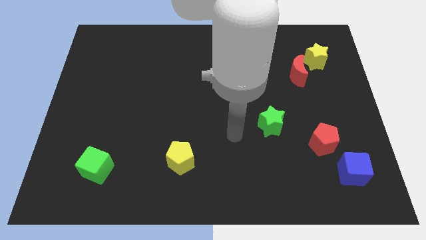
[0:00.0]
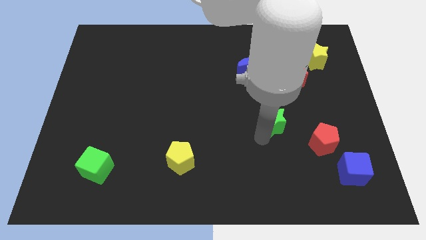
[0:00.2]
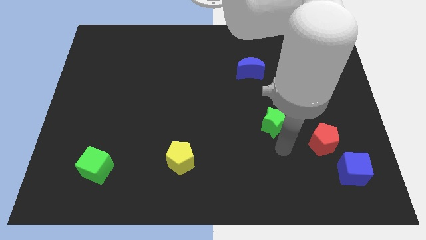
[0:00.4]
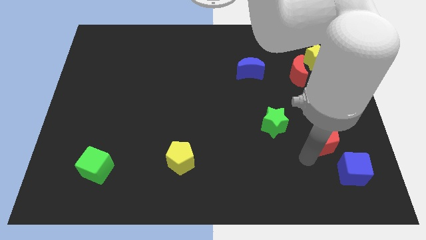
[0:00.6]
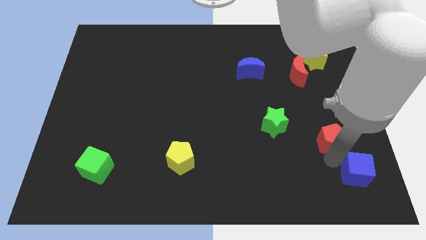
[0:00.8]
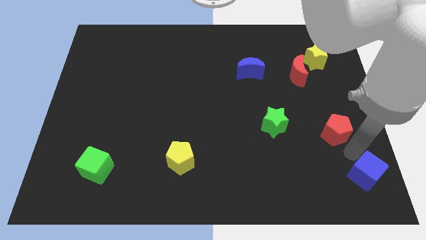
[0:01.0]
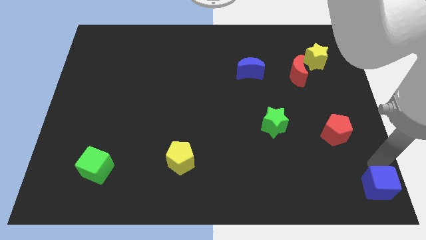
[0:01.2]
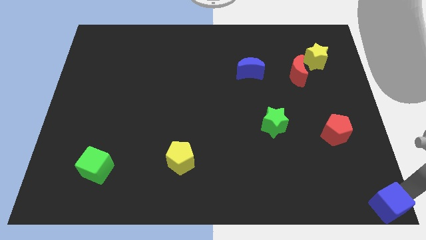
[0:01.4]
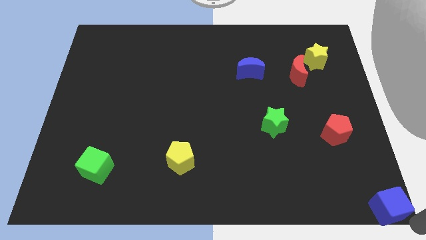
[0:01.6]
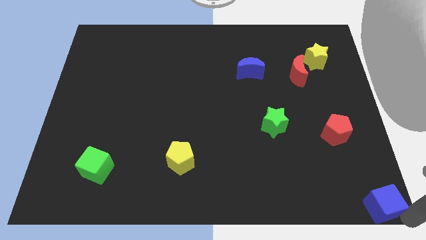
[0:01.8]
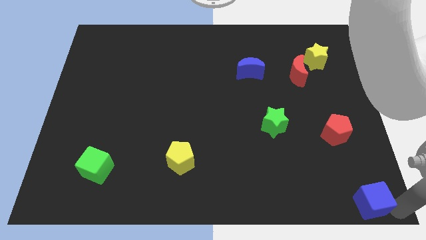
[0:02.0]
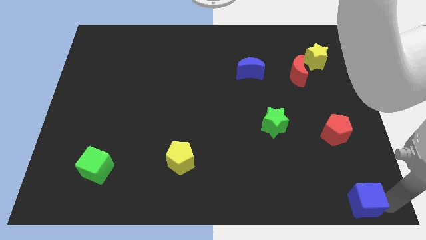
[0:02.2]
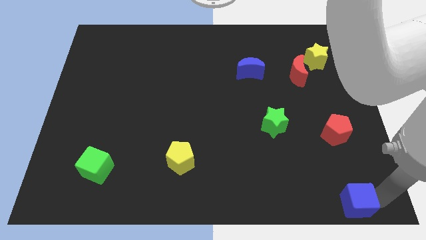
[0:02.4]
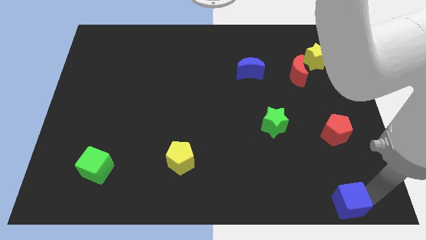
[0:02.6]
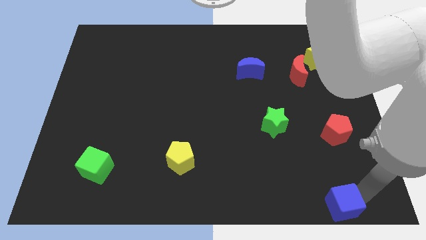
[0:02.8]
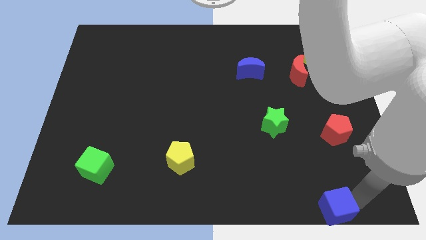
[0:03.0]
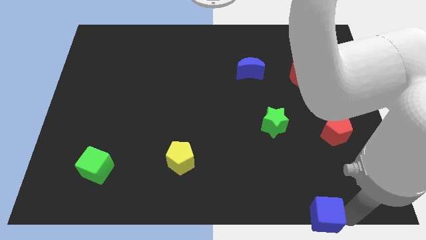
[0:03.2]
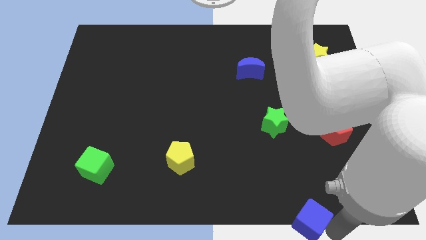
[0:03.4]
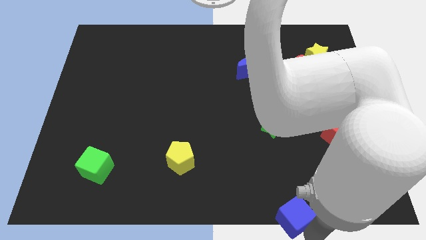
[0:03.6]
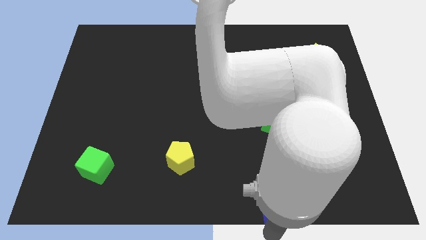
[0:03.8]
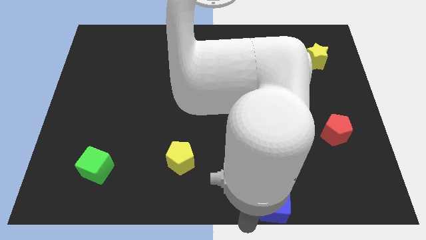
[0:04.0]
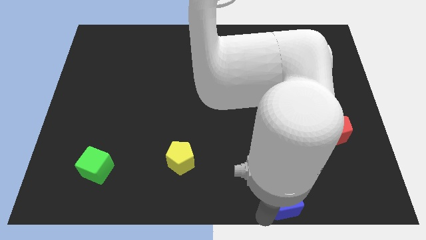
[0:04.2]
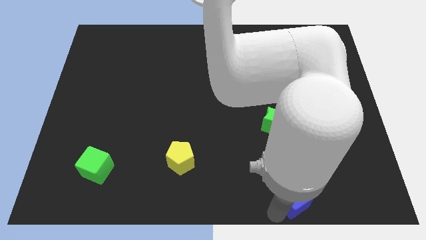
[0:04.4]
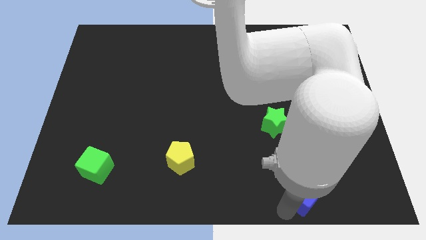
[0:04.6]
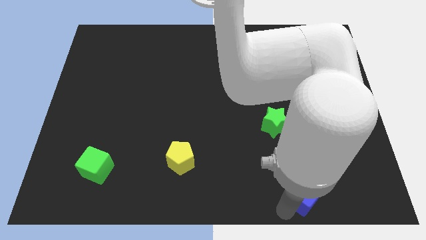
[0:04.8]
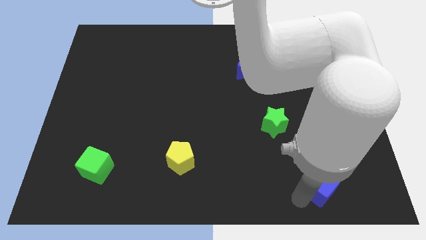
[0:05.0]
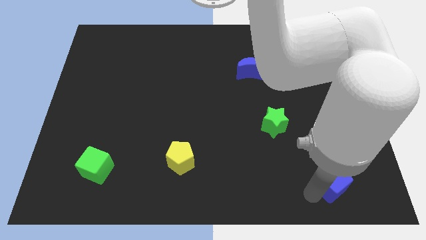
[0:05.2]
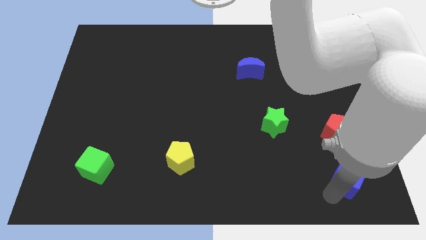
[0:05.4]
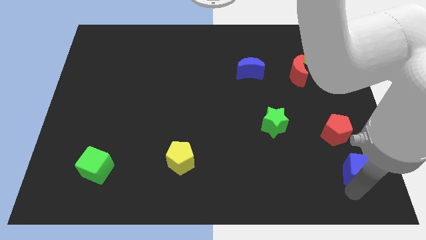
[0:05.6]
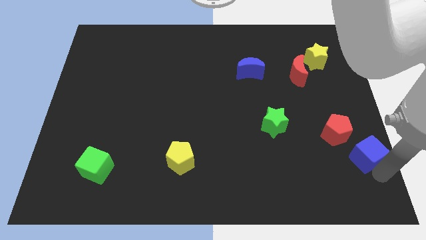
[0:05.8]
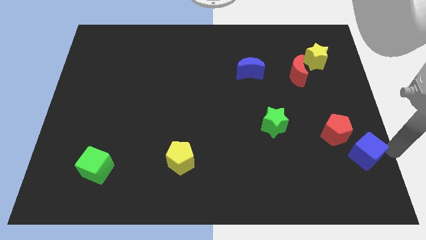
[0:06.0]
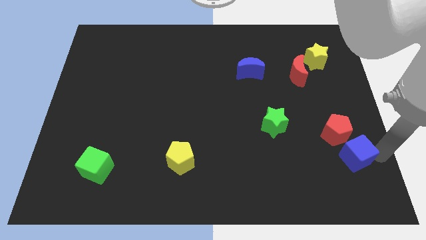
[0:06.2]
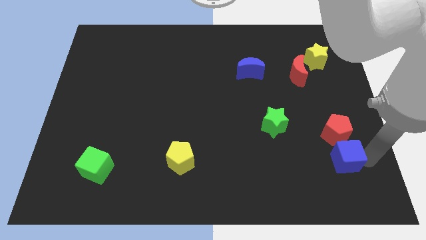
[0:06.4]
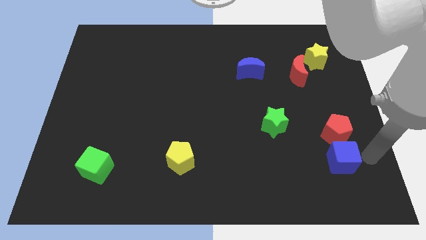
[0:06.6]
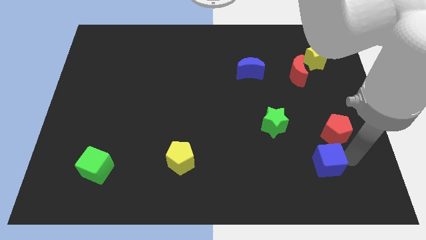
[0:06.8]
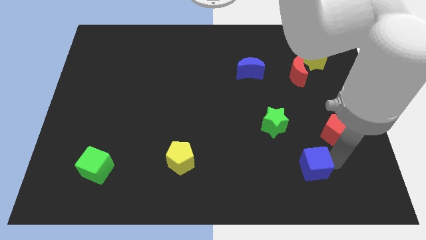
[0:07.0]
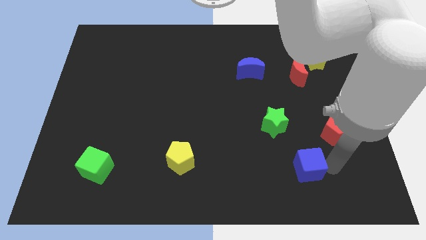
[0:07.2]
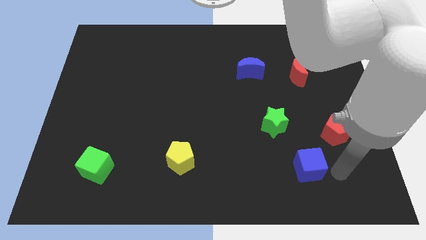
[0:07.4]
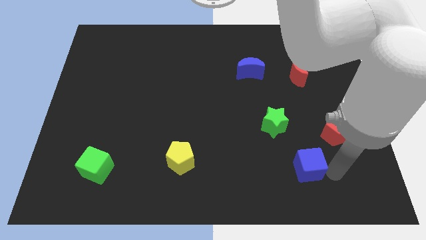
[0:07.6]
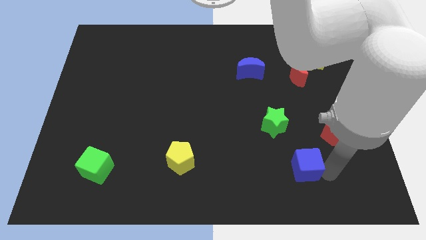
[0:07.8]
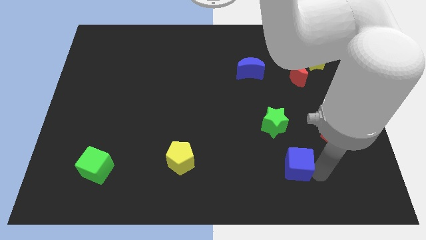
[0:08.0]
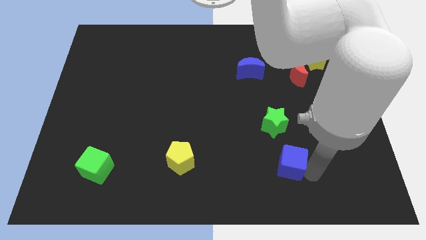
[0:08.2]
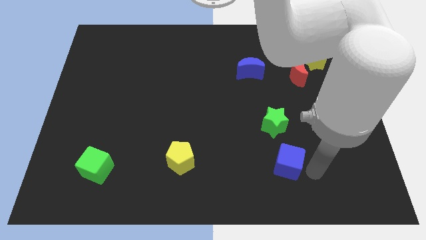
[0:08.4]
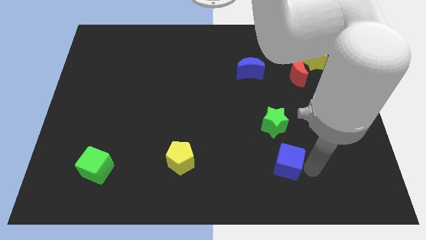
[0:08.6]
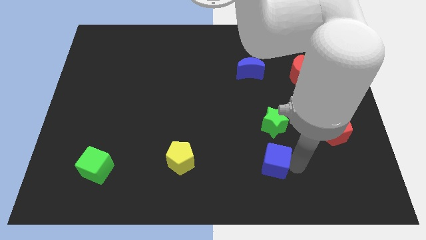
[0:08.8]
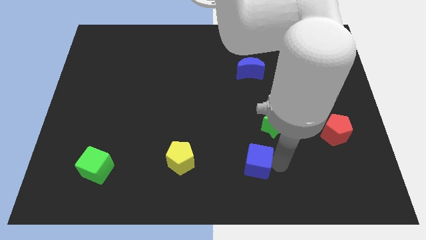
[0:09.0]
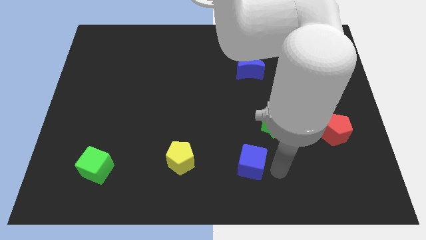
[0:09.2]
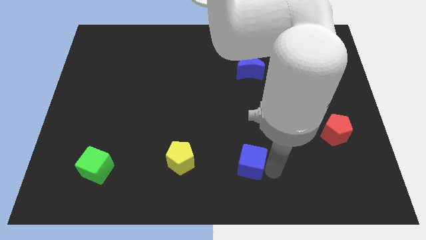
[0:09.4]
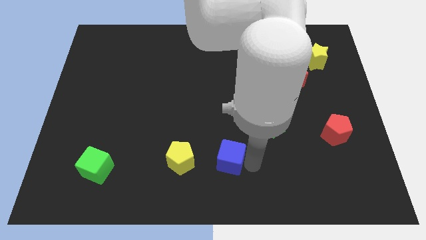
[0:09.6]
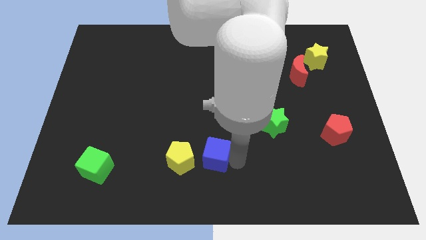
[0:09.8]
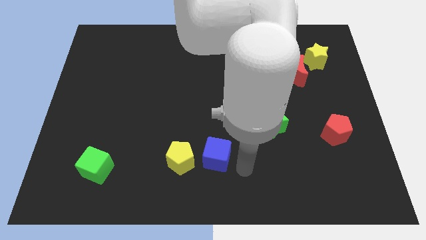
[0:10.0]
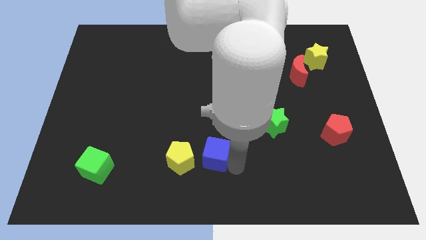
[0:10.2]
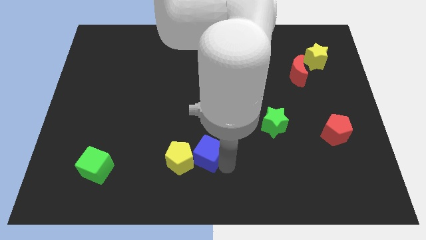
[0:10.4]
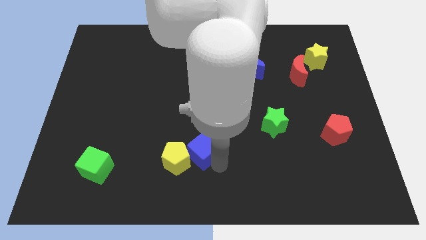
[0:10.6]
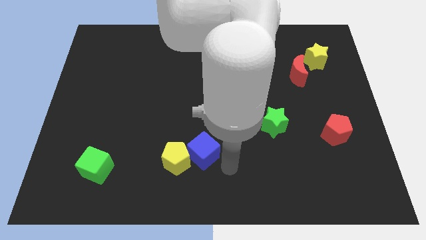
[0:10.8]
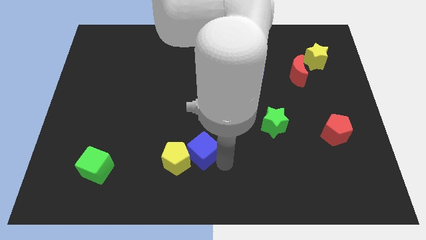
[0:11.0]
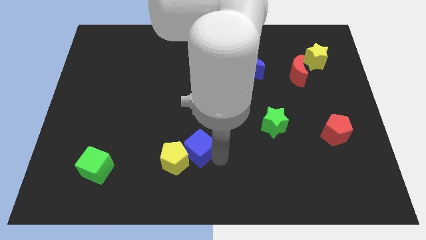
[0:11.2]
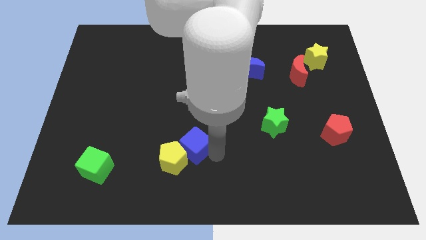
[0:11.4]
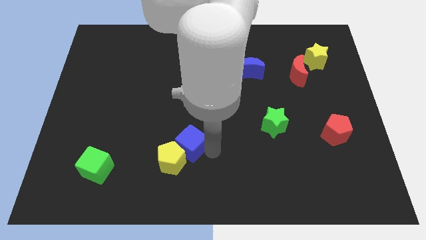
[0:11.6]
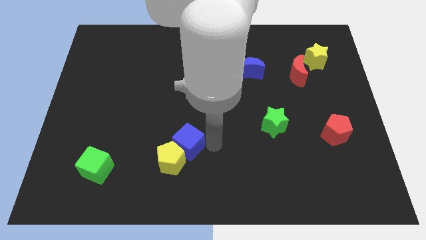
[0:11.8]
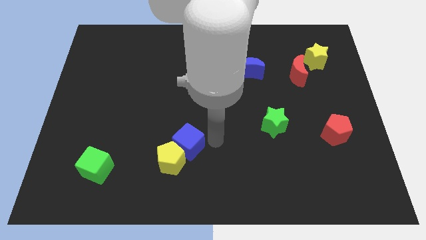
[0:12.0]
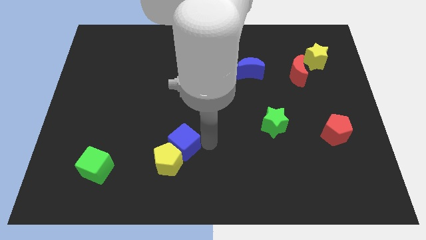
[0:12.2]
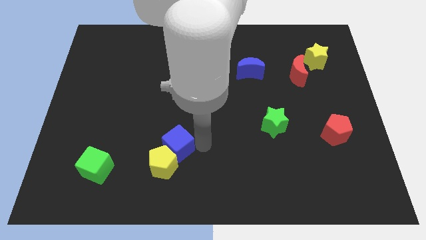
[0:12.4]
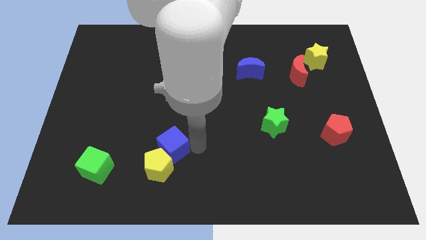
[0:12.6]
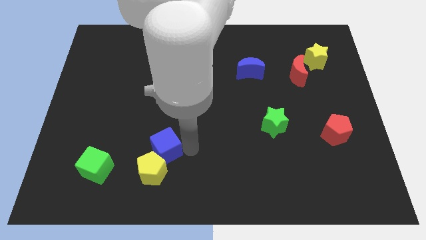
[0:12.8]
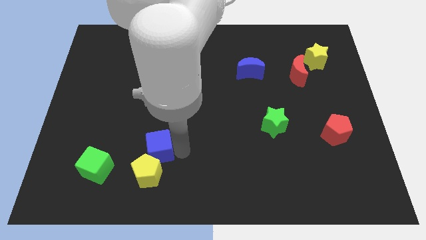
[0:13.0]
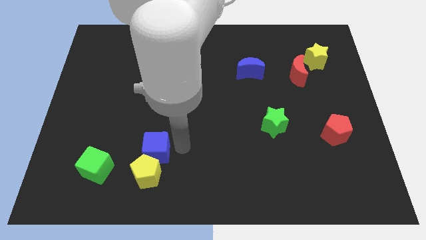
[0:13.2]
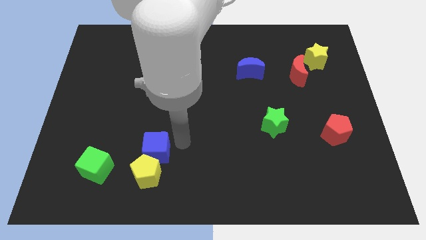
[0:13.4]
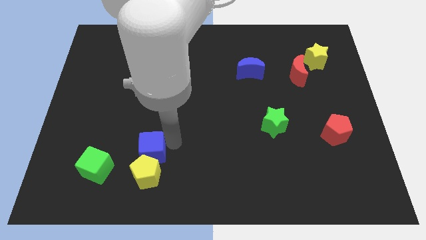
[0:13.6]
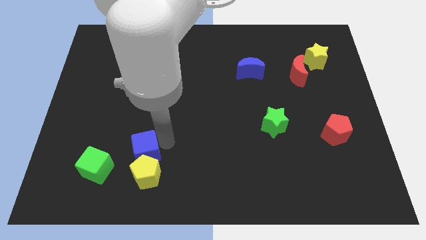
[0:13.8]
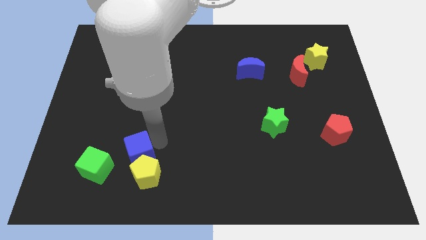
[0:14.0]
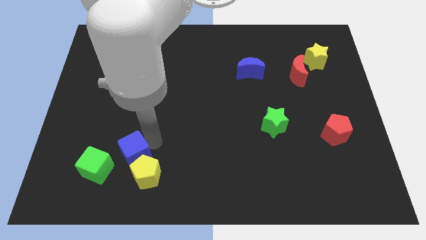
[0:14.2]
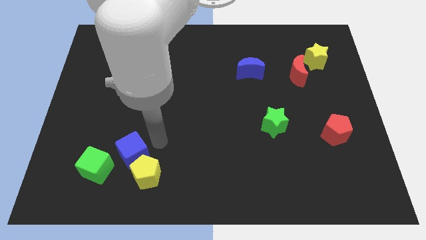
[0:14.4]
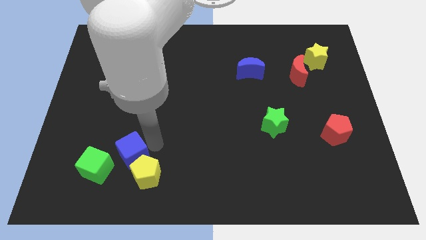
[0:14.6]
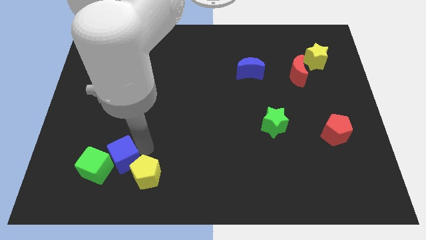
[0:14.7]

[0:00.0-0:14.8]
push the blue cube to the green cube
